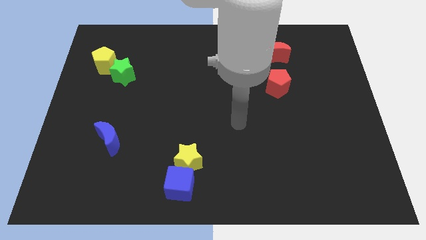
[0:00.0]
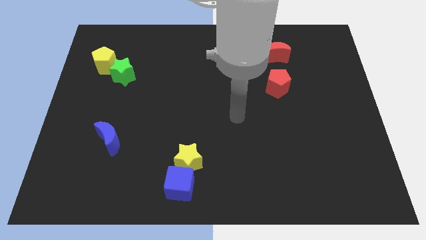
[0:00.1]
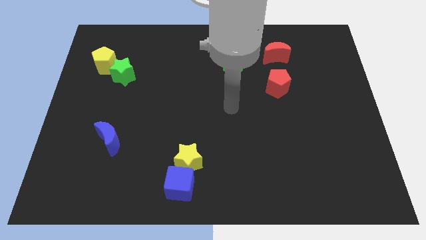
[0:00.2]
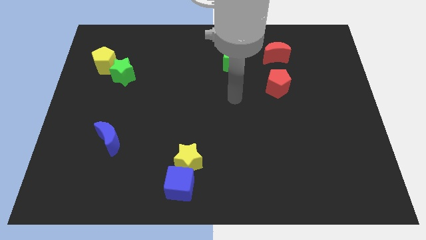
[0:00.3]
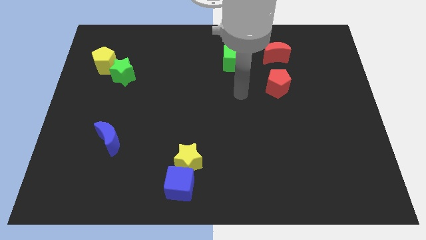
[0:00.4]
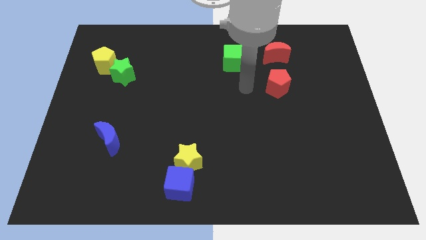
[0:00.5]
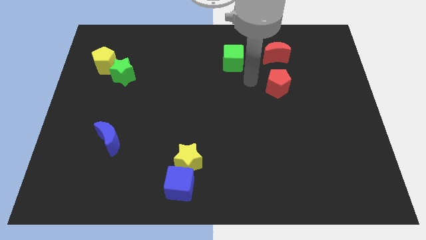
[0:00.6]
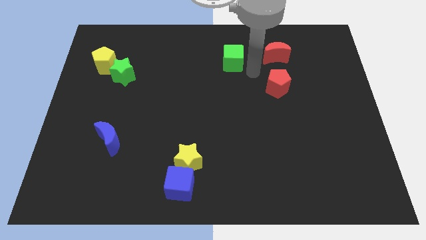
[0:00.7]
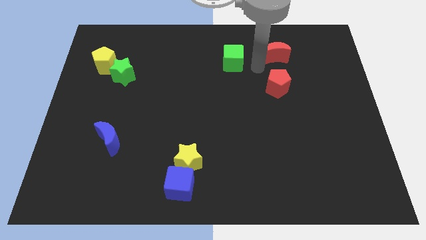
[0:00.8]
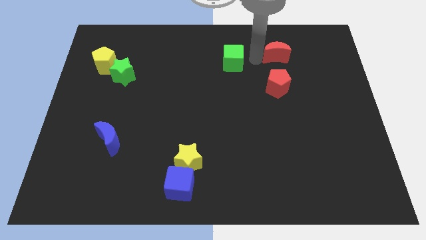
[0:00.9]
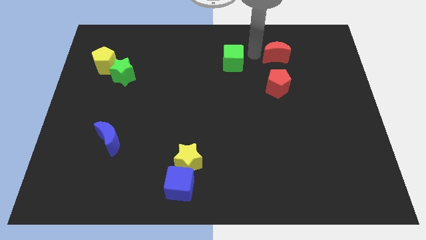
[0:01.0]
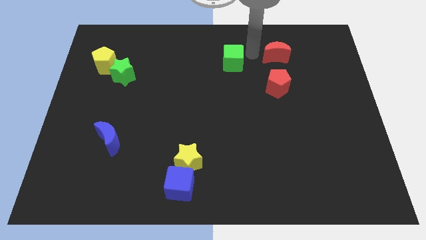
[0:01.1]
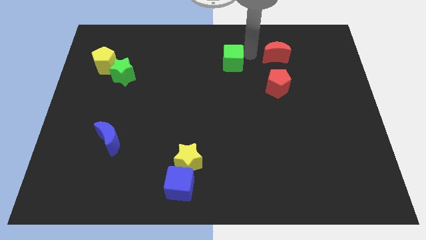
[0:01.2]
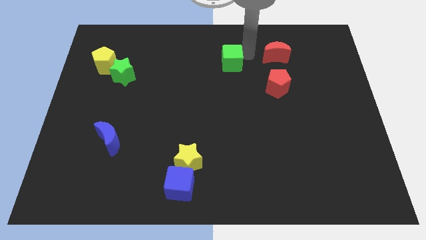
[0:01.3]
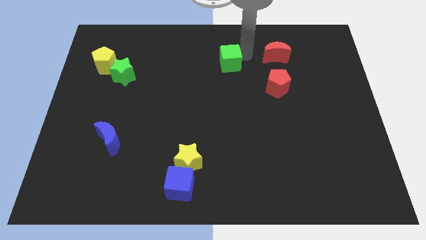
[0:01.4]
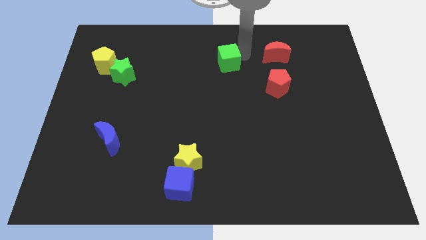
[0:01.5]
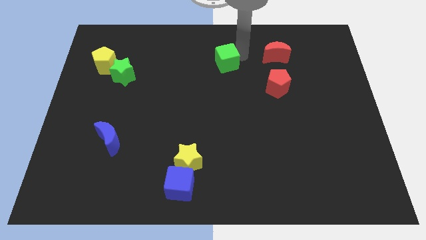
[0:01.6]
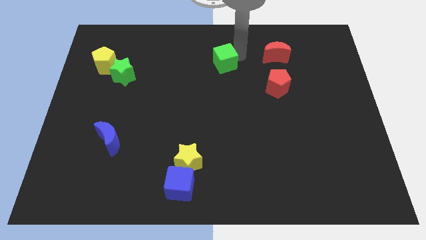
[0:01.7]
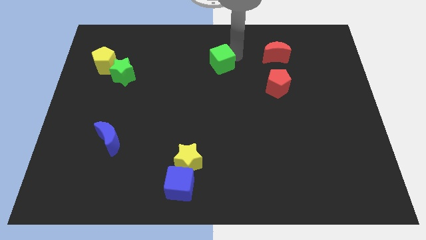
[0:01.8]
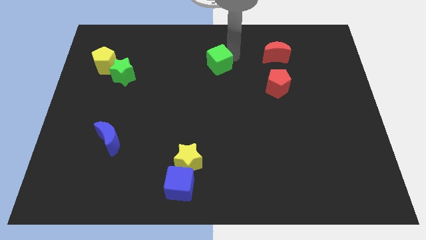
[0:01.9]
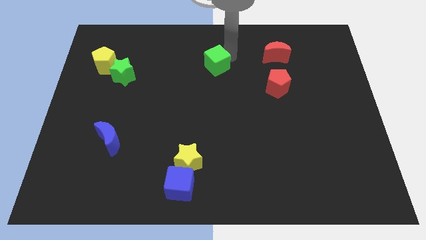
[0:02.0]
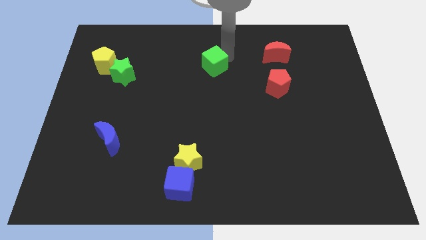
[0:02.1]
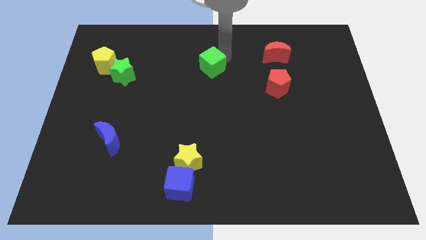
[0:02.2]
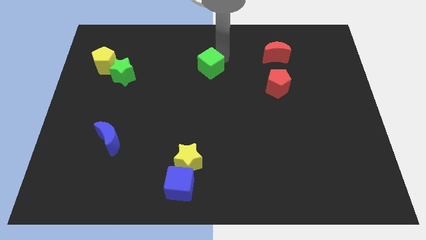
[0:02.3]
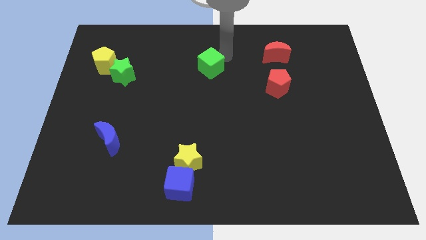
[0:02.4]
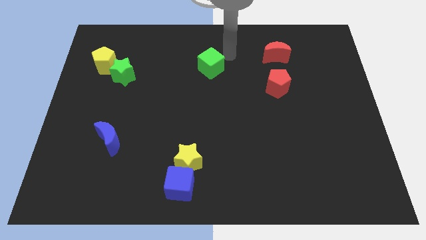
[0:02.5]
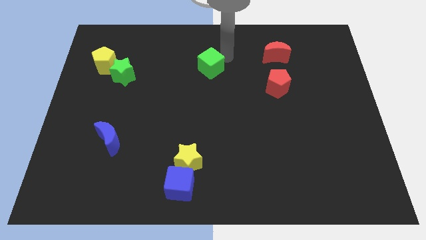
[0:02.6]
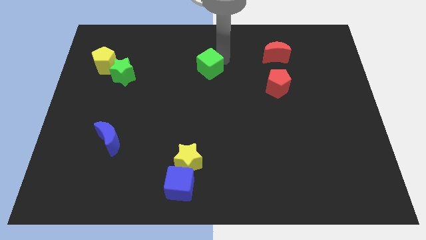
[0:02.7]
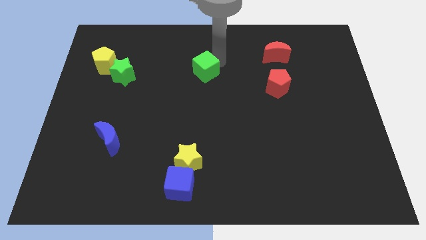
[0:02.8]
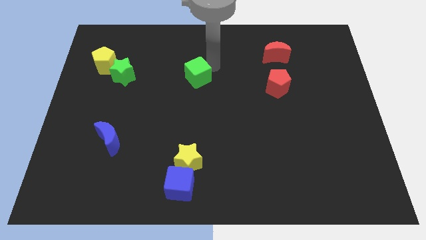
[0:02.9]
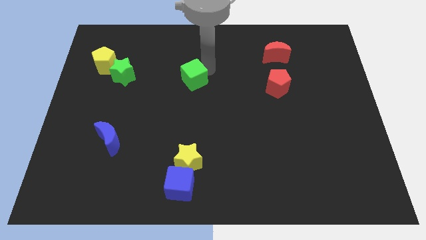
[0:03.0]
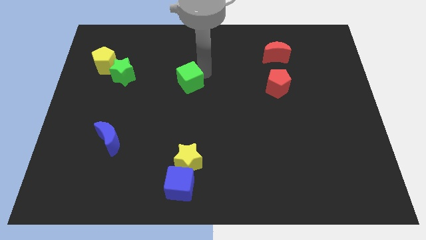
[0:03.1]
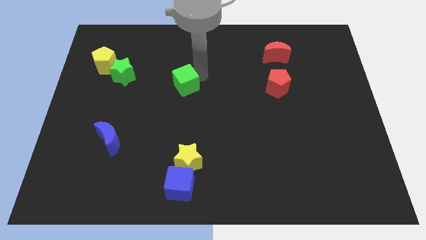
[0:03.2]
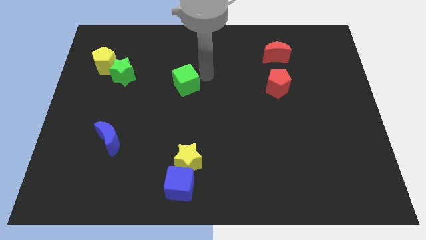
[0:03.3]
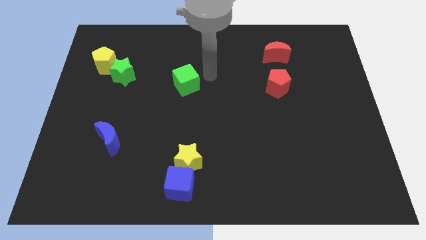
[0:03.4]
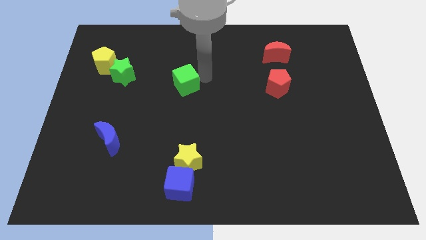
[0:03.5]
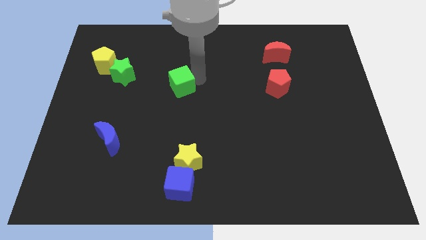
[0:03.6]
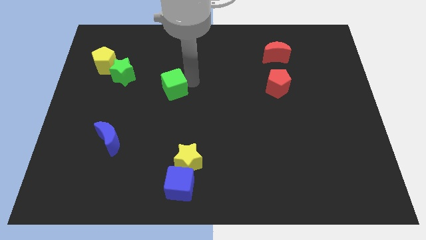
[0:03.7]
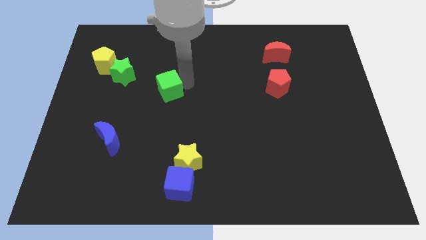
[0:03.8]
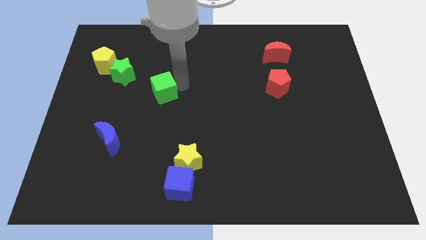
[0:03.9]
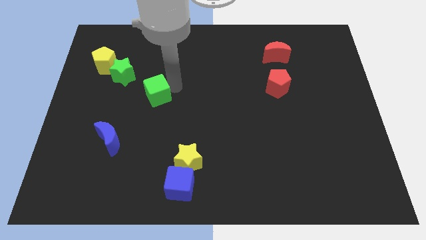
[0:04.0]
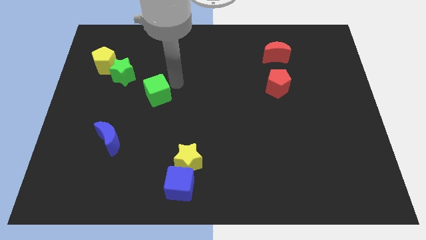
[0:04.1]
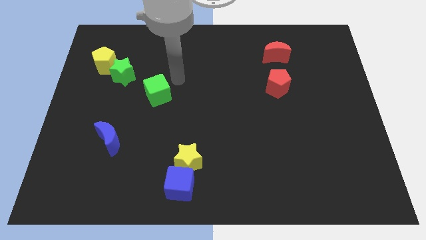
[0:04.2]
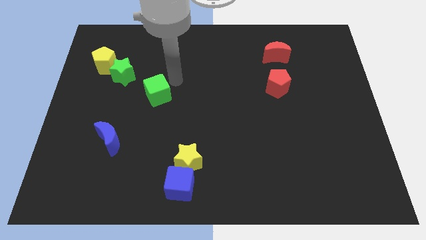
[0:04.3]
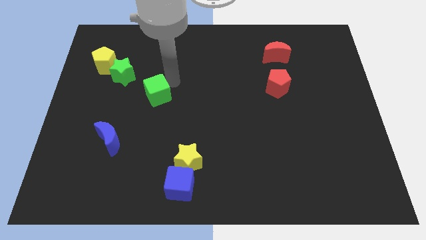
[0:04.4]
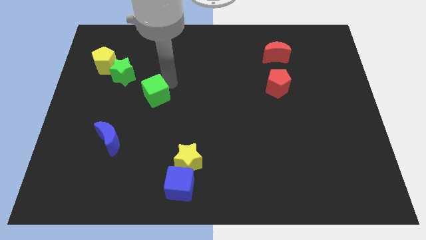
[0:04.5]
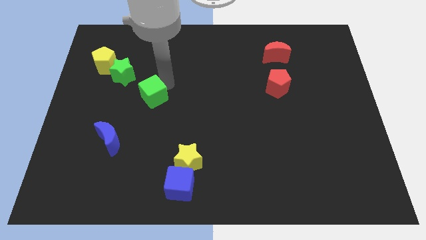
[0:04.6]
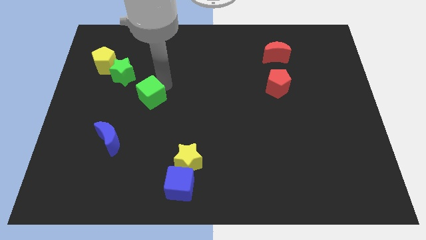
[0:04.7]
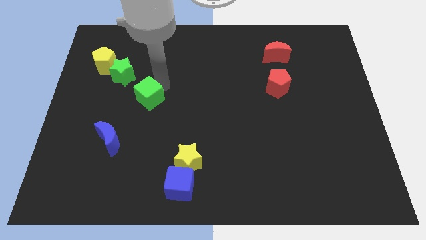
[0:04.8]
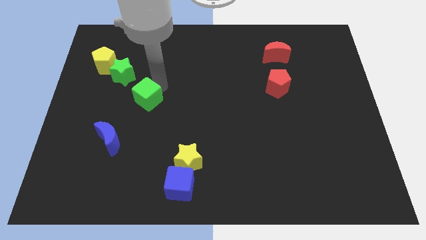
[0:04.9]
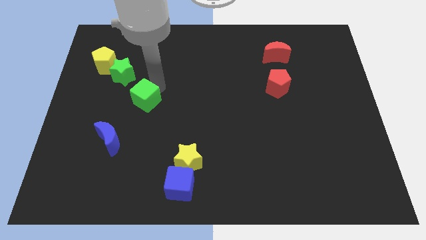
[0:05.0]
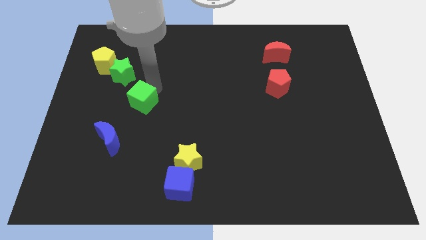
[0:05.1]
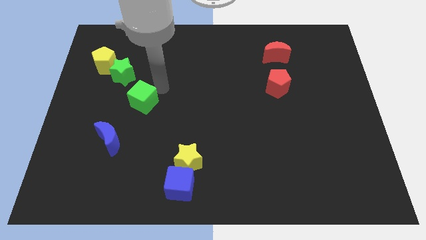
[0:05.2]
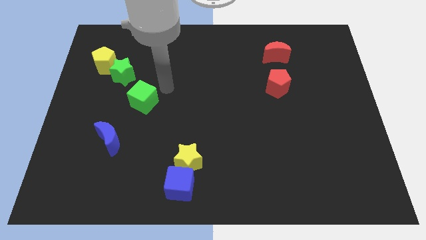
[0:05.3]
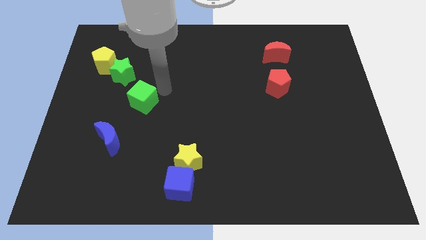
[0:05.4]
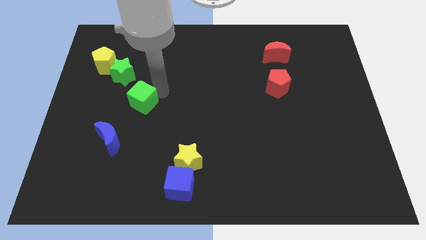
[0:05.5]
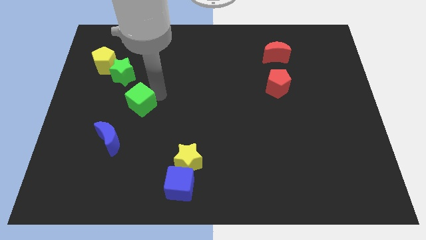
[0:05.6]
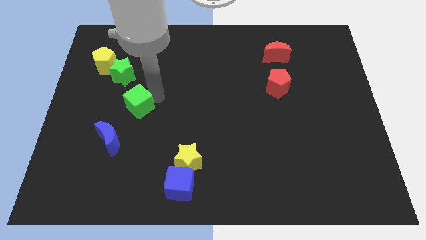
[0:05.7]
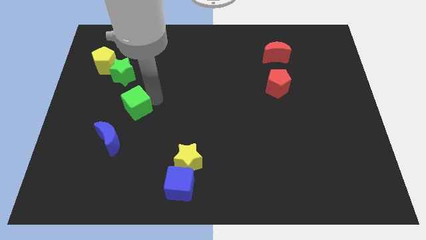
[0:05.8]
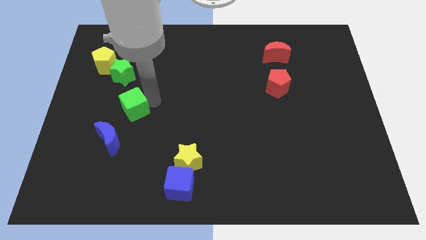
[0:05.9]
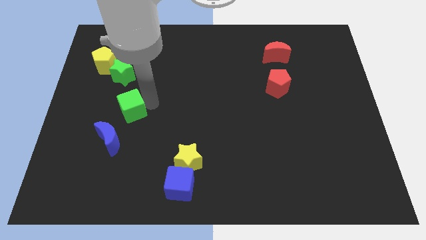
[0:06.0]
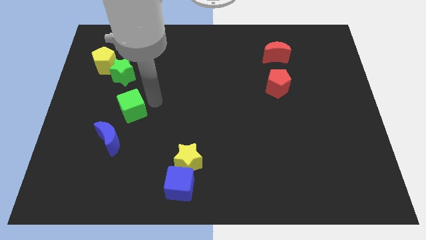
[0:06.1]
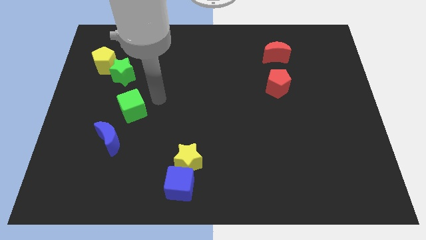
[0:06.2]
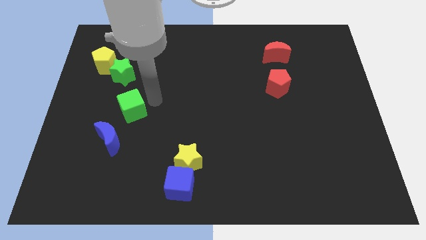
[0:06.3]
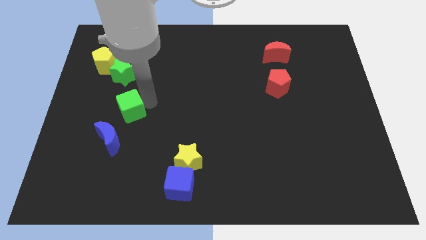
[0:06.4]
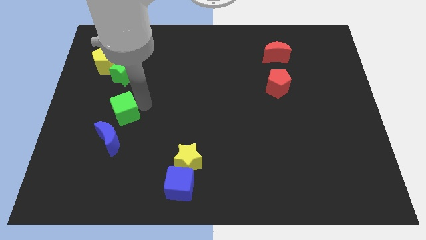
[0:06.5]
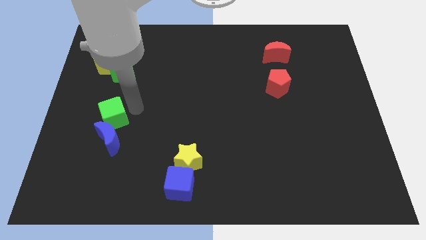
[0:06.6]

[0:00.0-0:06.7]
put the green cube to the top left side of the blue moon

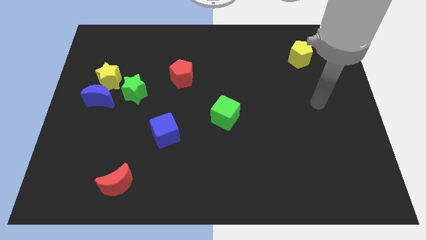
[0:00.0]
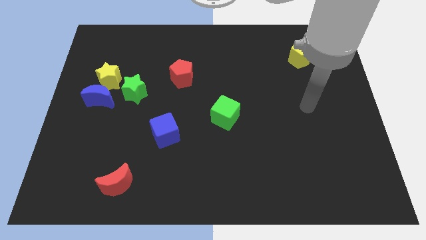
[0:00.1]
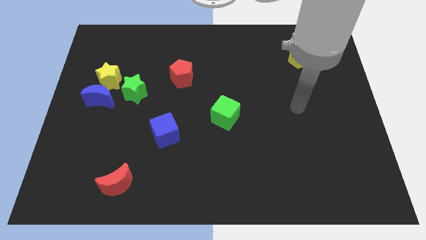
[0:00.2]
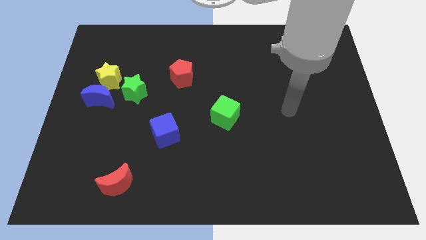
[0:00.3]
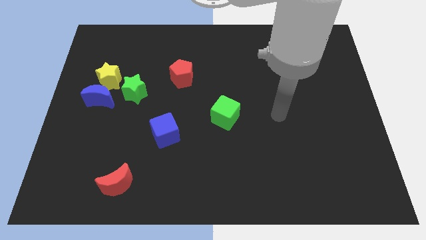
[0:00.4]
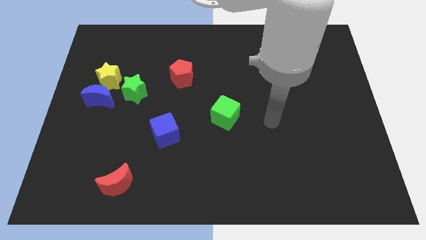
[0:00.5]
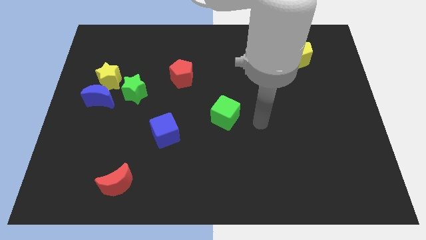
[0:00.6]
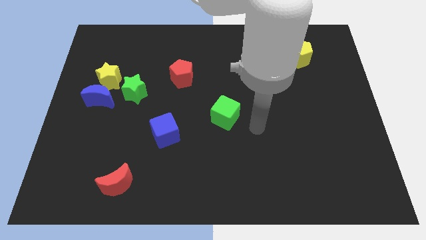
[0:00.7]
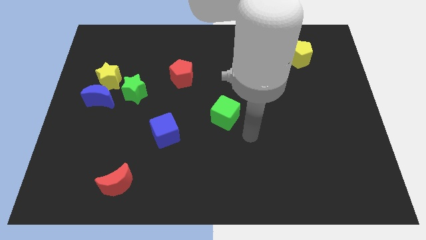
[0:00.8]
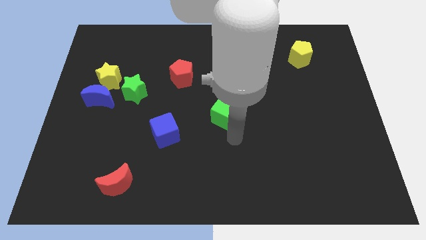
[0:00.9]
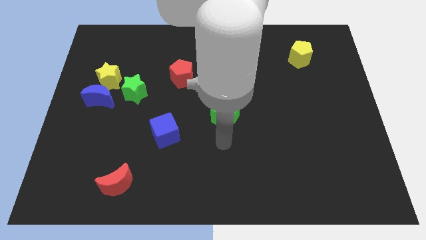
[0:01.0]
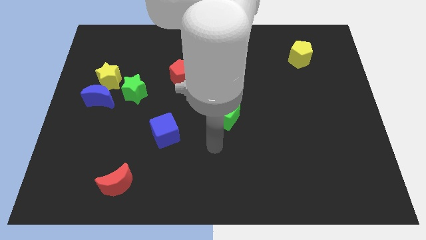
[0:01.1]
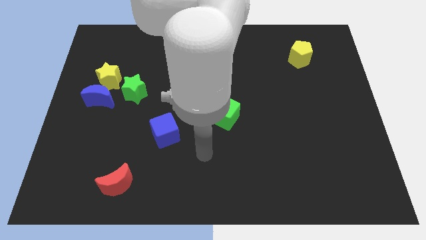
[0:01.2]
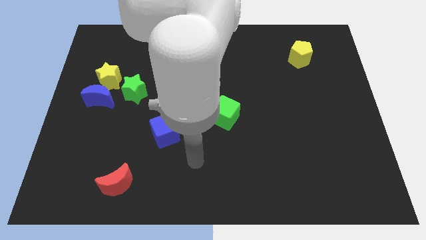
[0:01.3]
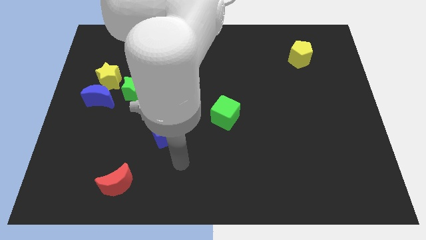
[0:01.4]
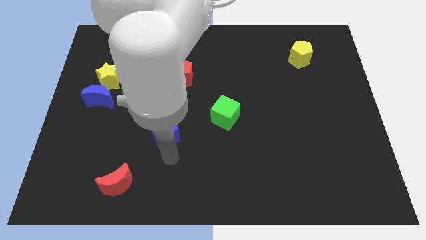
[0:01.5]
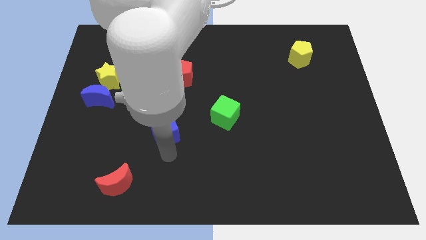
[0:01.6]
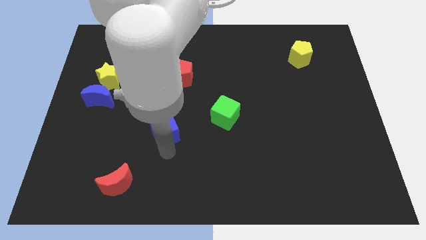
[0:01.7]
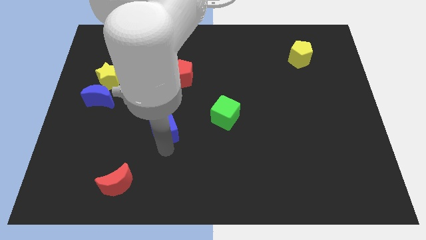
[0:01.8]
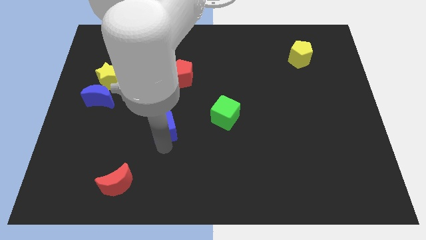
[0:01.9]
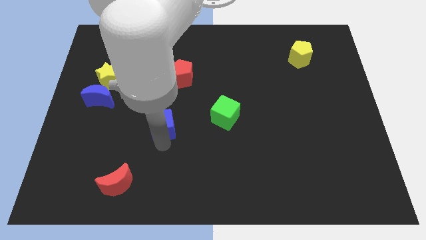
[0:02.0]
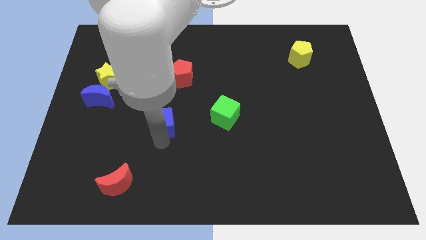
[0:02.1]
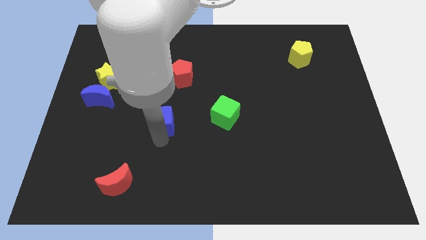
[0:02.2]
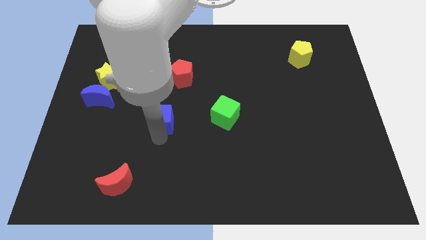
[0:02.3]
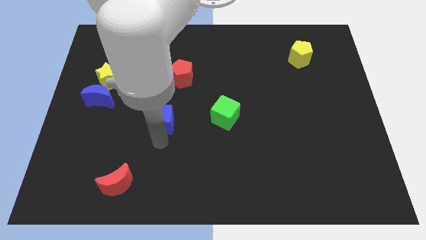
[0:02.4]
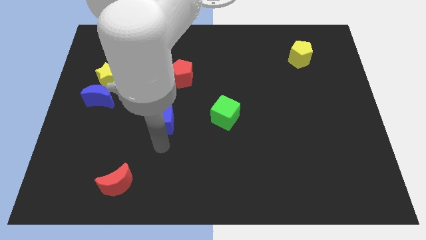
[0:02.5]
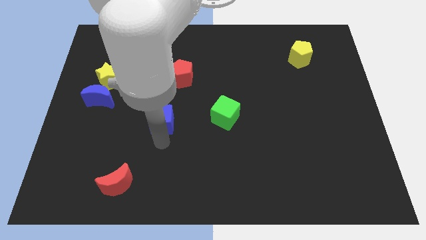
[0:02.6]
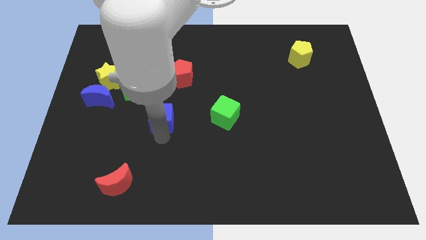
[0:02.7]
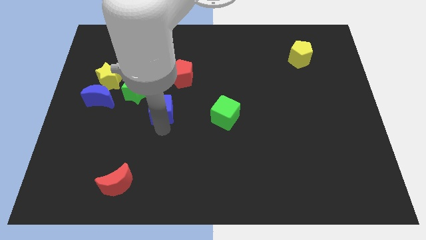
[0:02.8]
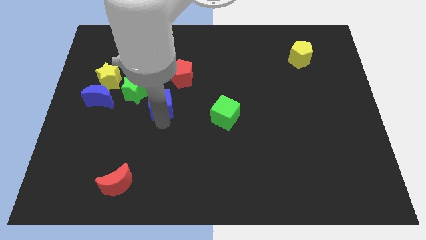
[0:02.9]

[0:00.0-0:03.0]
move the blue cube to the bottom left of the red pentagon
